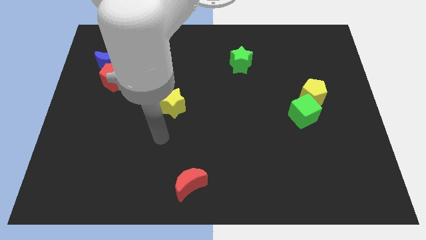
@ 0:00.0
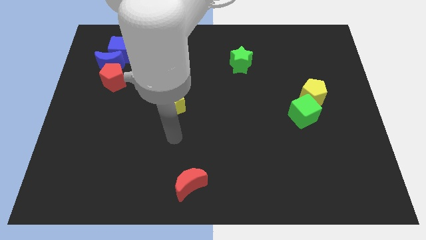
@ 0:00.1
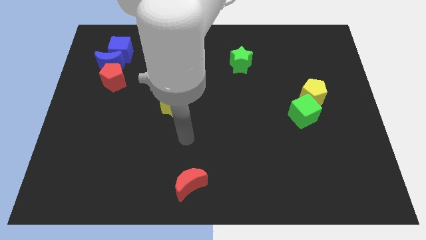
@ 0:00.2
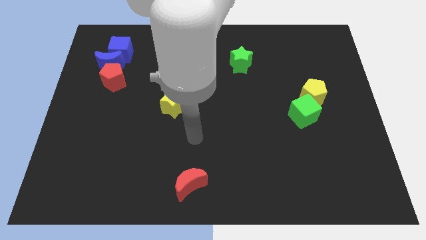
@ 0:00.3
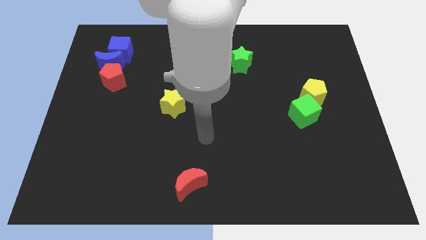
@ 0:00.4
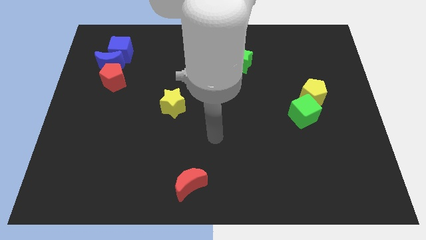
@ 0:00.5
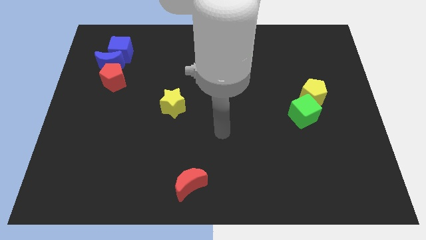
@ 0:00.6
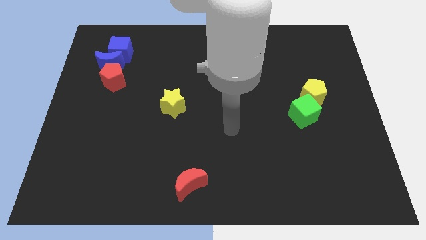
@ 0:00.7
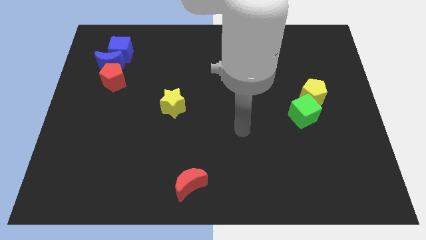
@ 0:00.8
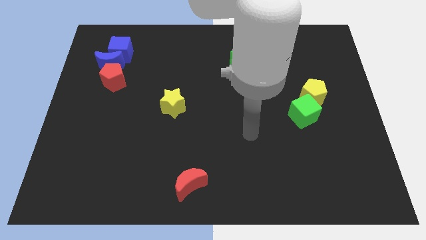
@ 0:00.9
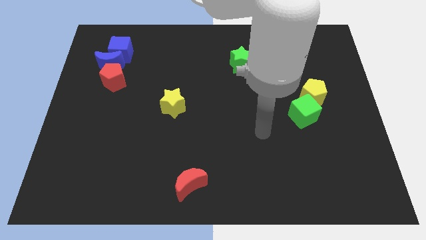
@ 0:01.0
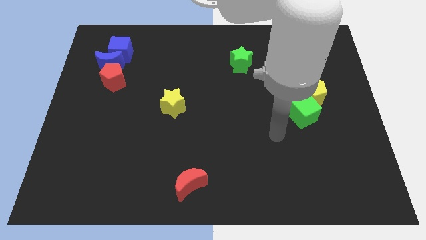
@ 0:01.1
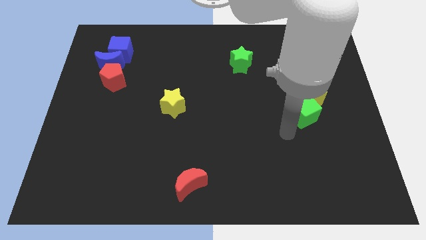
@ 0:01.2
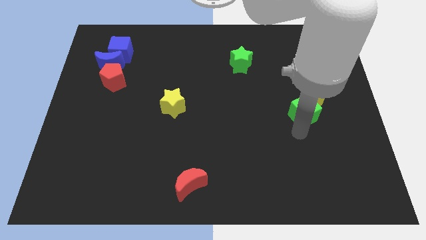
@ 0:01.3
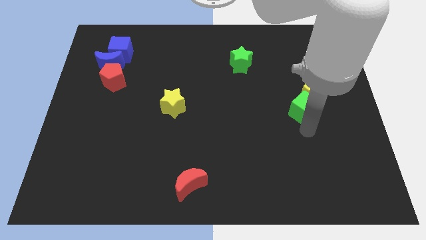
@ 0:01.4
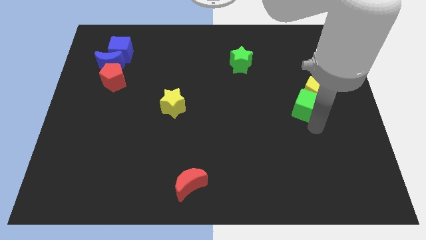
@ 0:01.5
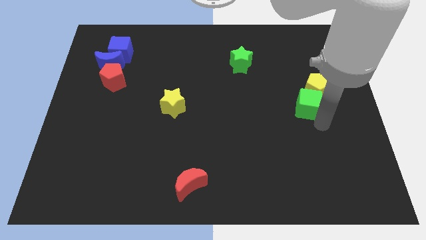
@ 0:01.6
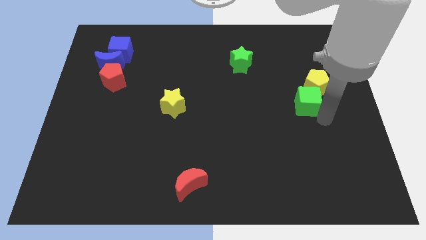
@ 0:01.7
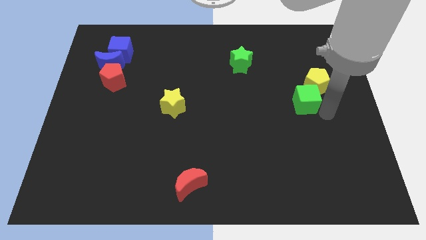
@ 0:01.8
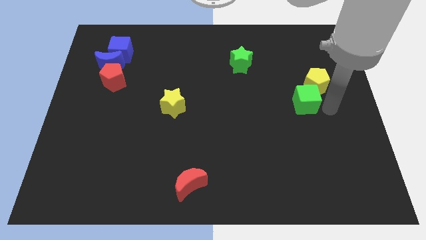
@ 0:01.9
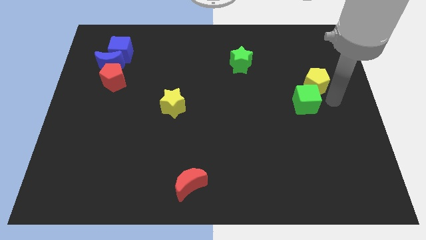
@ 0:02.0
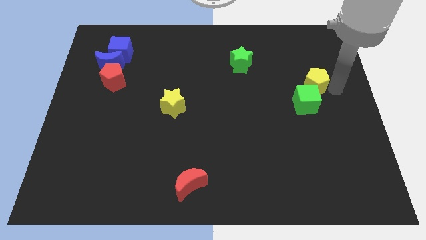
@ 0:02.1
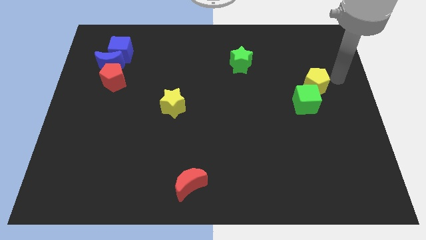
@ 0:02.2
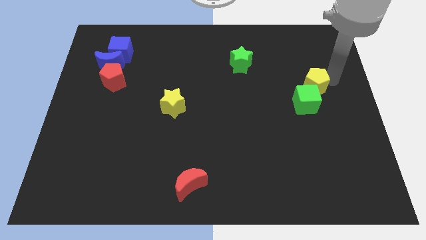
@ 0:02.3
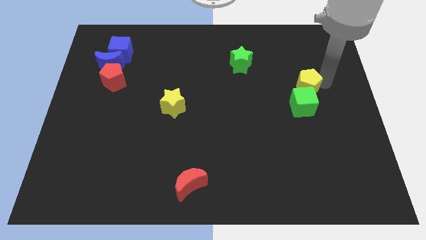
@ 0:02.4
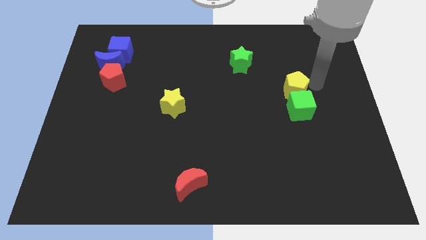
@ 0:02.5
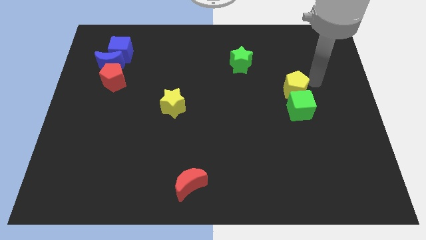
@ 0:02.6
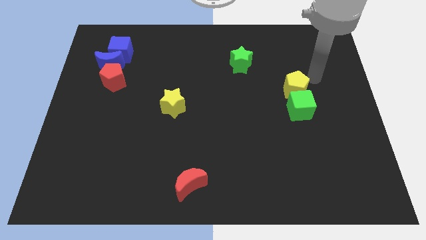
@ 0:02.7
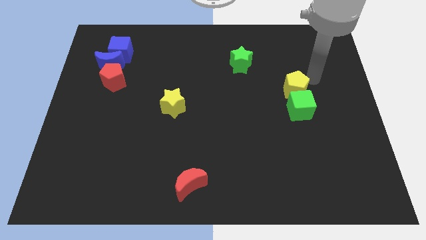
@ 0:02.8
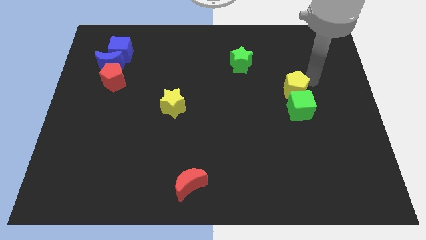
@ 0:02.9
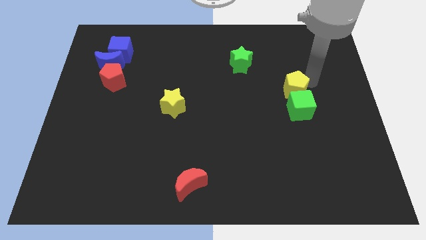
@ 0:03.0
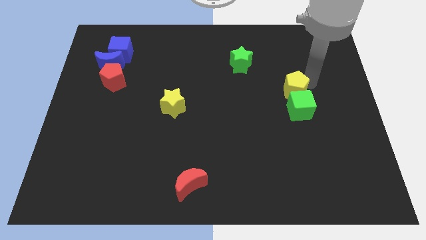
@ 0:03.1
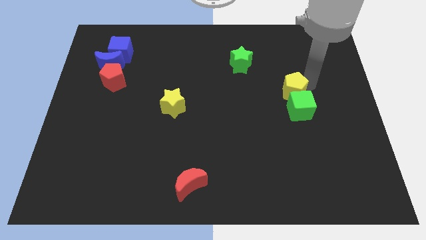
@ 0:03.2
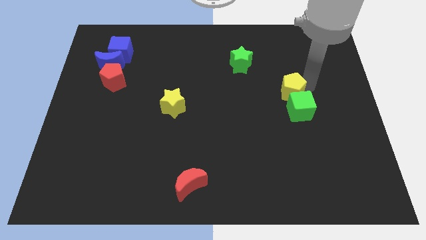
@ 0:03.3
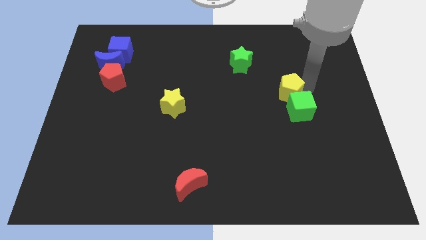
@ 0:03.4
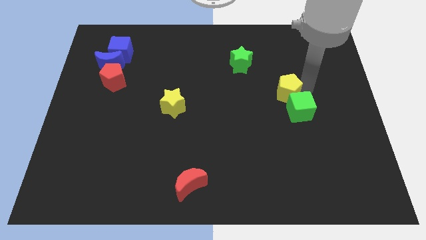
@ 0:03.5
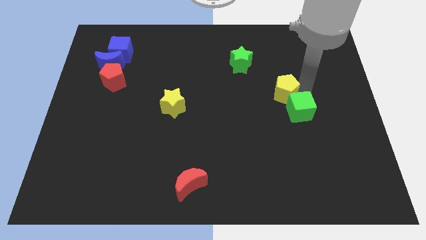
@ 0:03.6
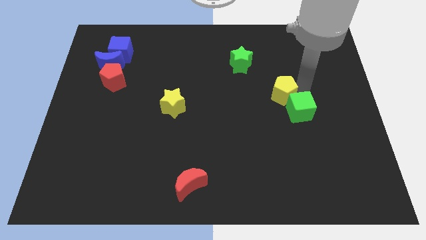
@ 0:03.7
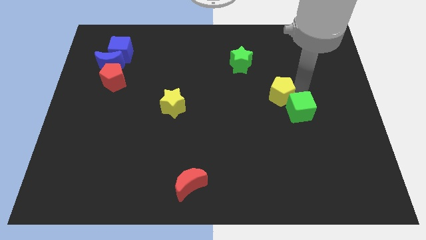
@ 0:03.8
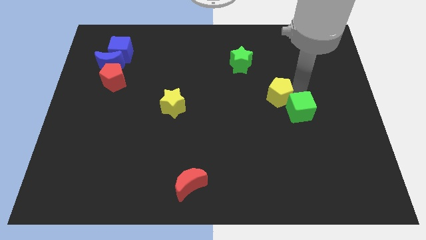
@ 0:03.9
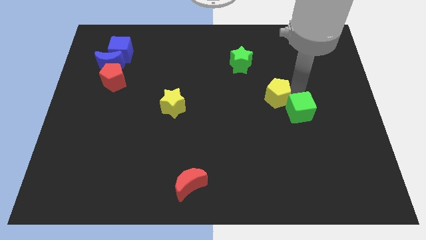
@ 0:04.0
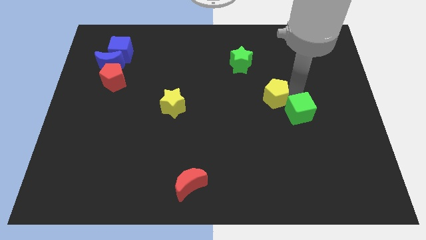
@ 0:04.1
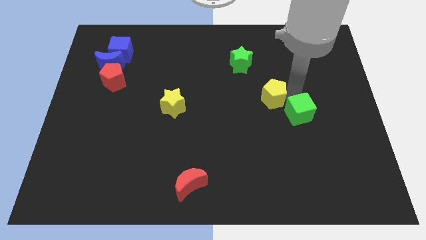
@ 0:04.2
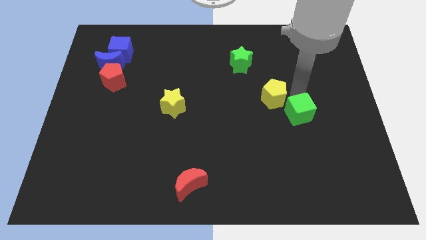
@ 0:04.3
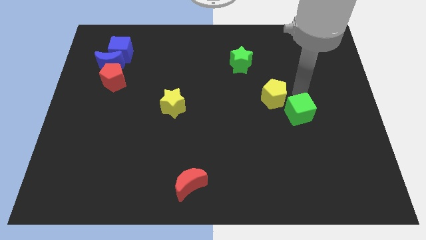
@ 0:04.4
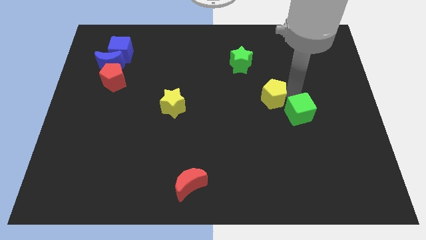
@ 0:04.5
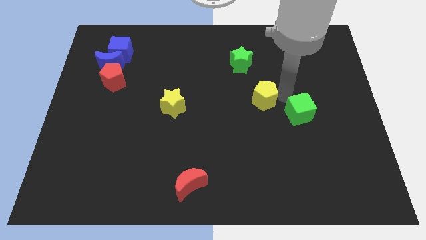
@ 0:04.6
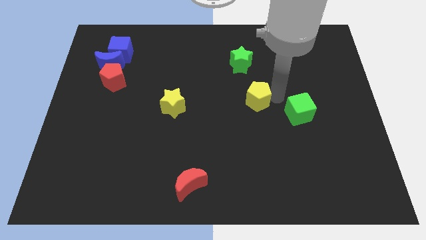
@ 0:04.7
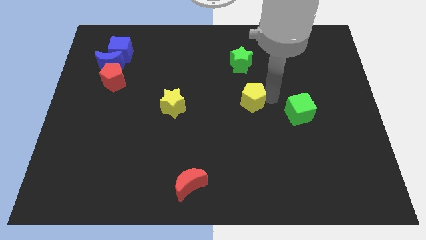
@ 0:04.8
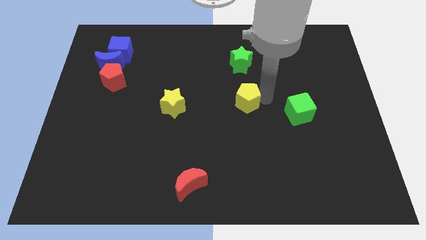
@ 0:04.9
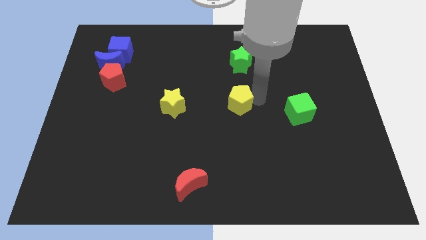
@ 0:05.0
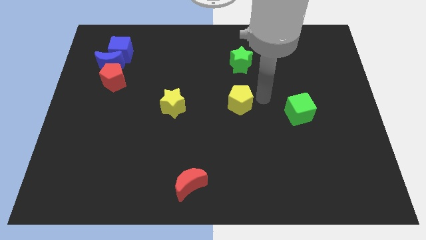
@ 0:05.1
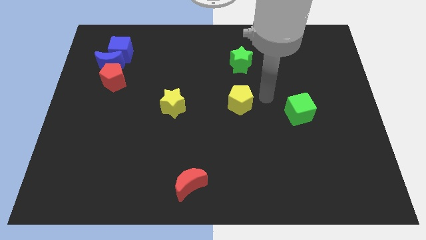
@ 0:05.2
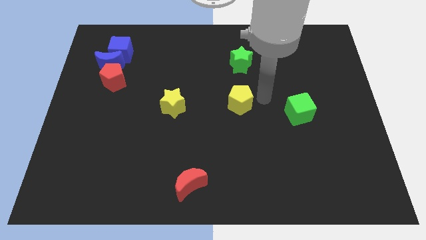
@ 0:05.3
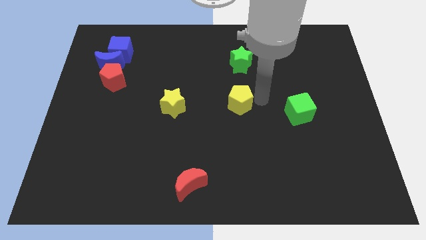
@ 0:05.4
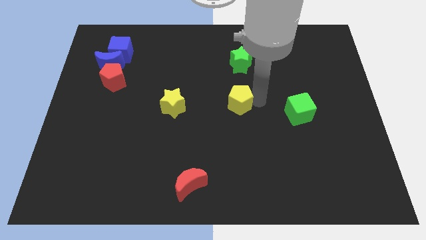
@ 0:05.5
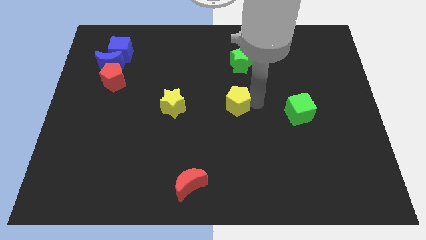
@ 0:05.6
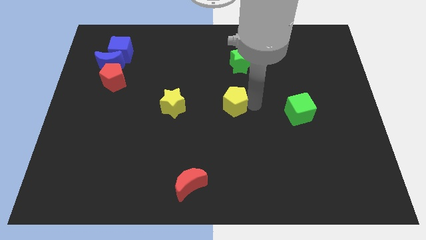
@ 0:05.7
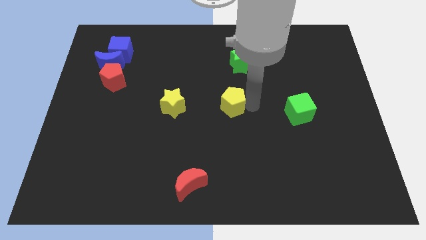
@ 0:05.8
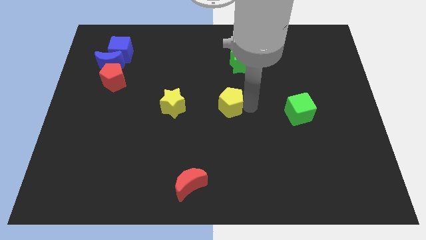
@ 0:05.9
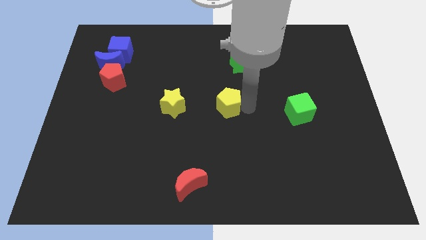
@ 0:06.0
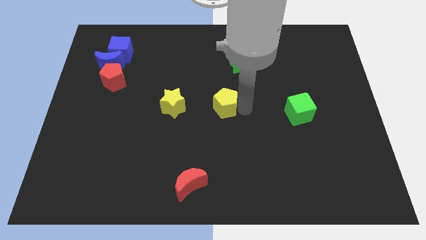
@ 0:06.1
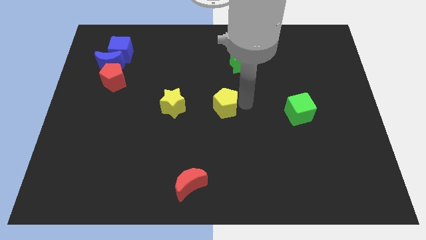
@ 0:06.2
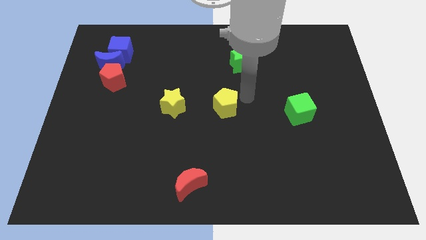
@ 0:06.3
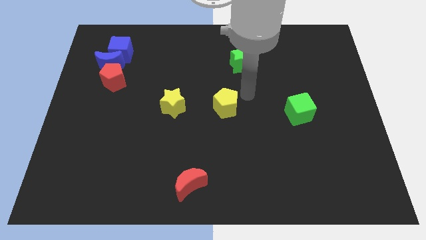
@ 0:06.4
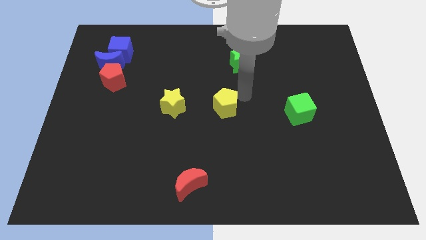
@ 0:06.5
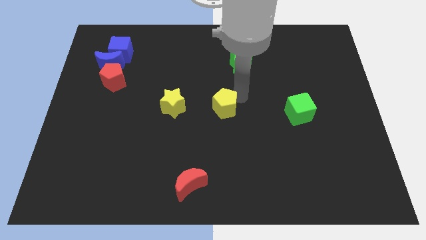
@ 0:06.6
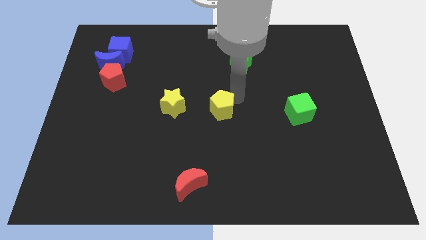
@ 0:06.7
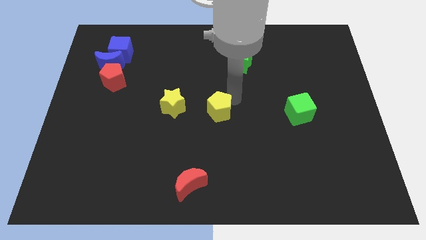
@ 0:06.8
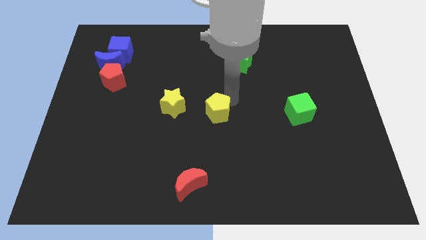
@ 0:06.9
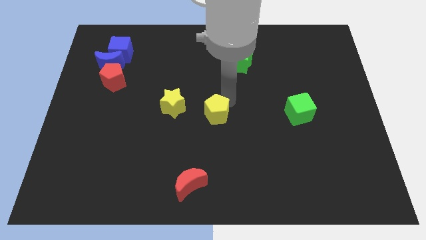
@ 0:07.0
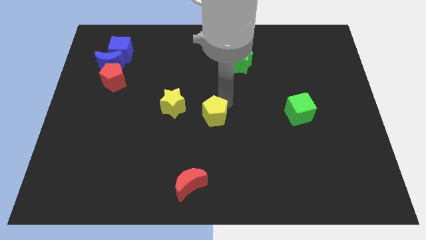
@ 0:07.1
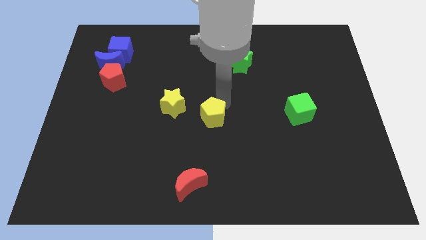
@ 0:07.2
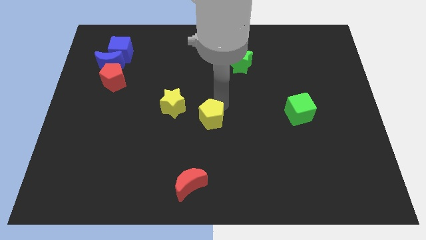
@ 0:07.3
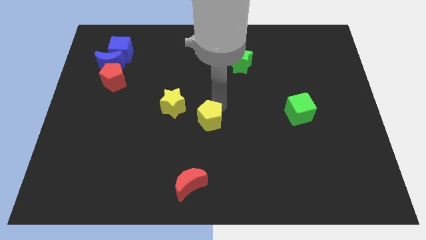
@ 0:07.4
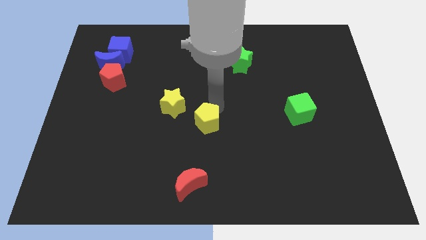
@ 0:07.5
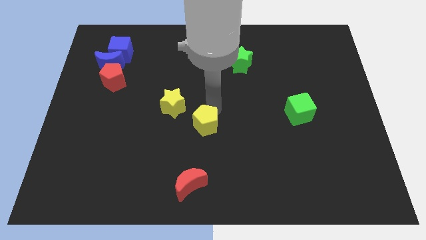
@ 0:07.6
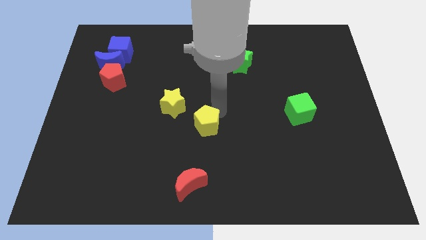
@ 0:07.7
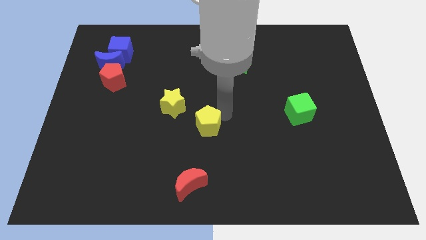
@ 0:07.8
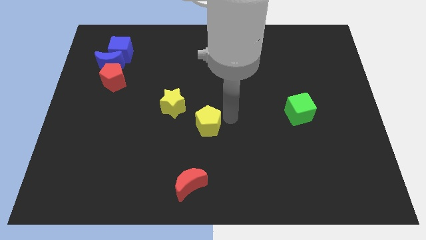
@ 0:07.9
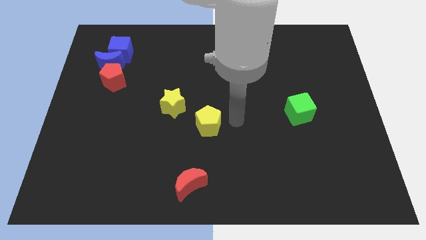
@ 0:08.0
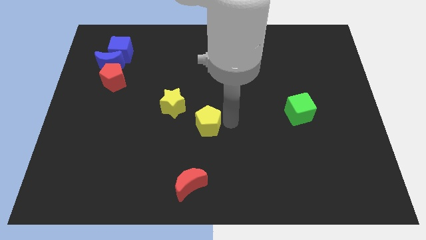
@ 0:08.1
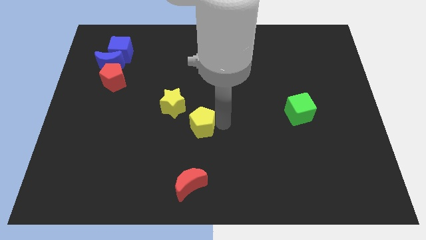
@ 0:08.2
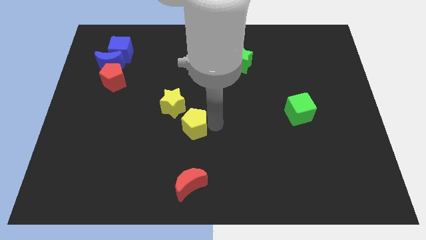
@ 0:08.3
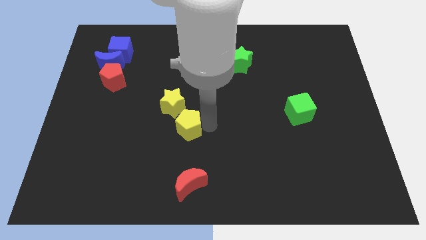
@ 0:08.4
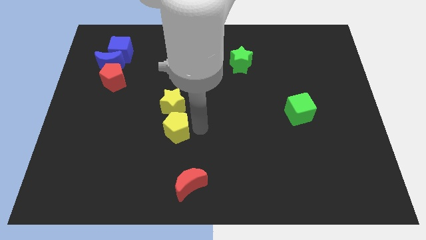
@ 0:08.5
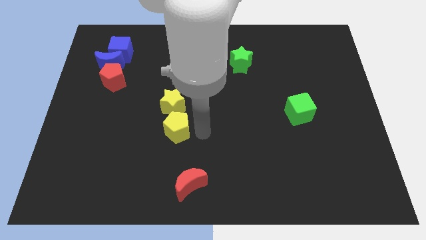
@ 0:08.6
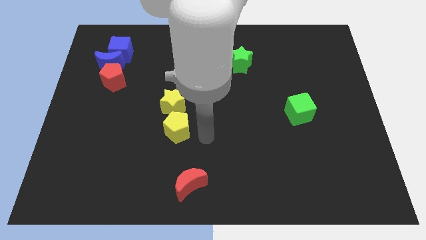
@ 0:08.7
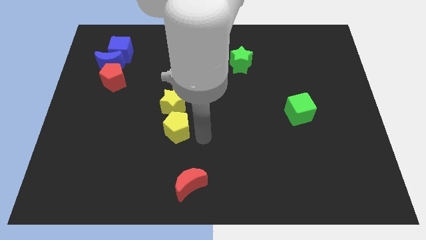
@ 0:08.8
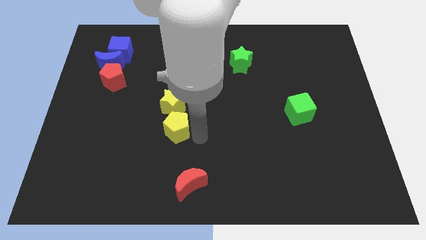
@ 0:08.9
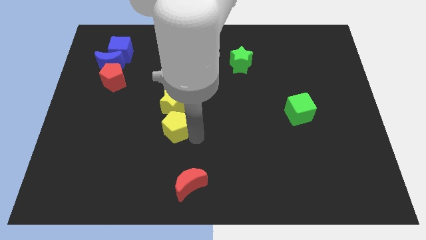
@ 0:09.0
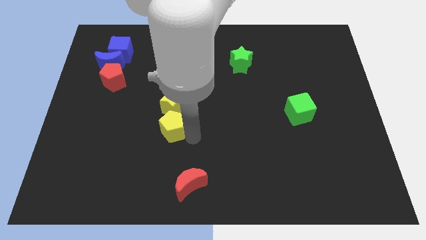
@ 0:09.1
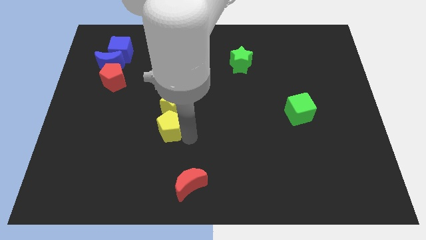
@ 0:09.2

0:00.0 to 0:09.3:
push the yellow pentagon to the bottom left side of the yellow star
